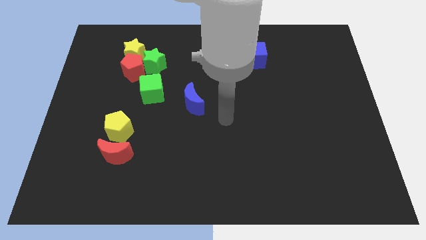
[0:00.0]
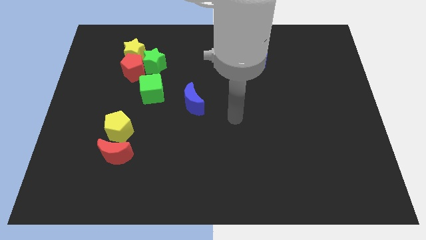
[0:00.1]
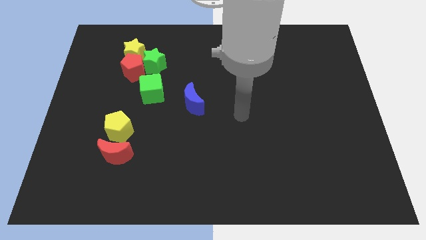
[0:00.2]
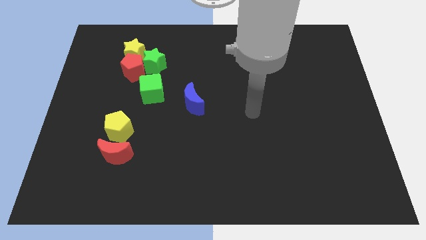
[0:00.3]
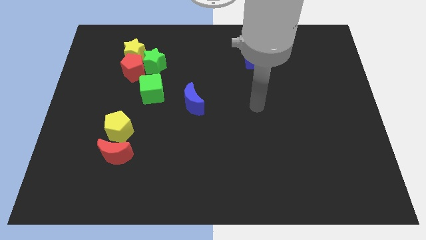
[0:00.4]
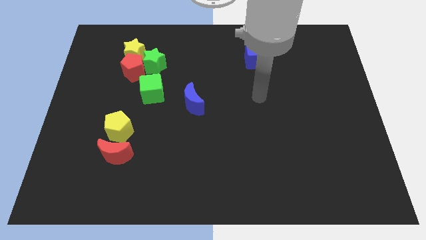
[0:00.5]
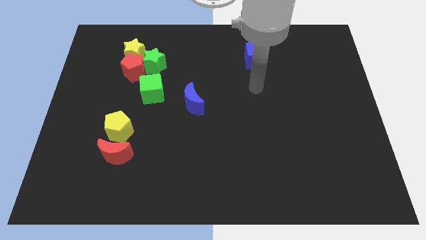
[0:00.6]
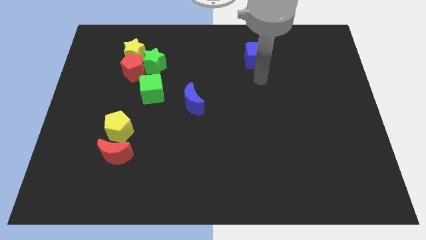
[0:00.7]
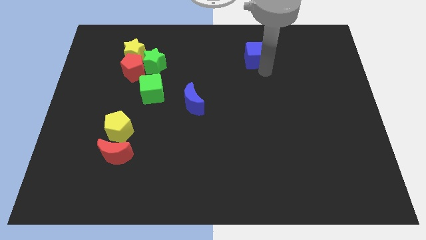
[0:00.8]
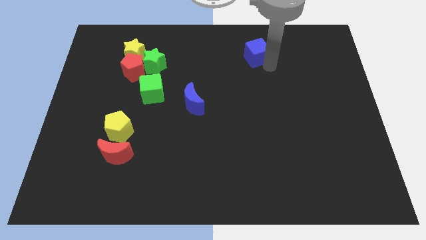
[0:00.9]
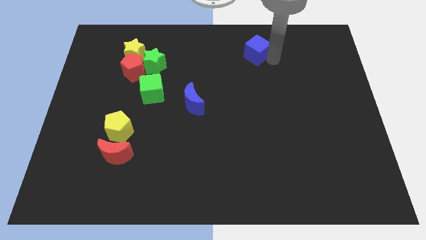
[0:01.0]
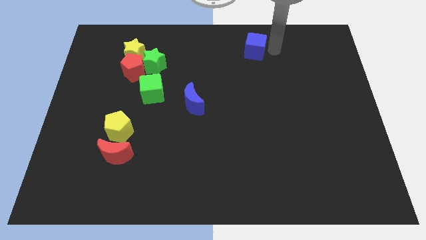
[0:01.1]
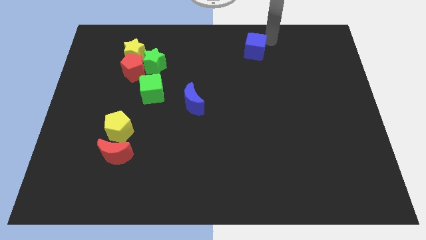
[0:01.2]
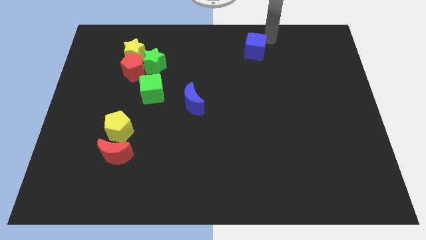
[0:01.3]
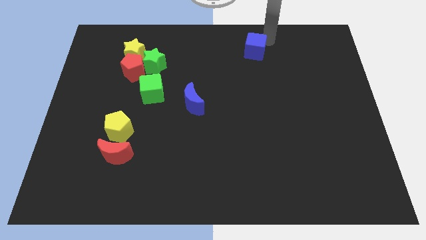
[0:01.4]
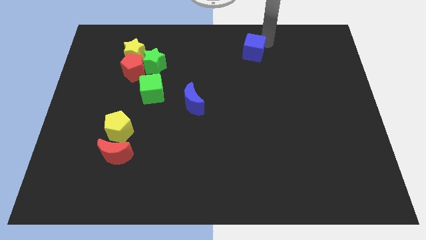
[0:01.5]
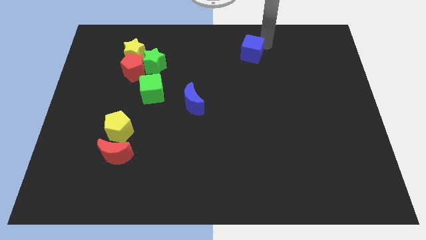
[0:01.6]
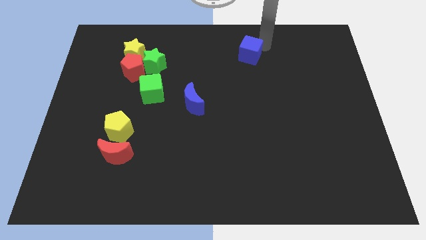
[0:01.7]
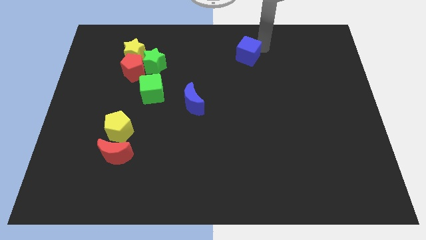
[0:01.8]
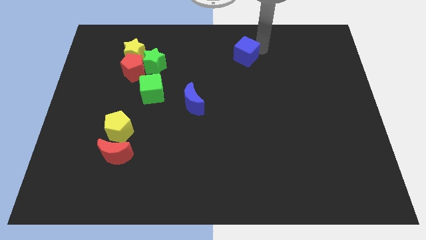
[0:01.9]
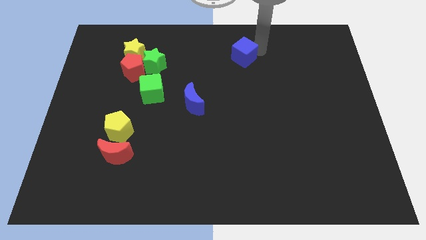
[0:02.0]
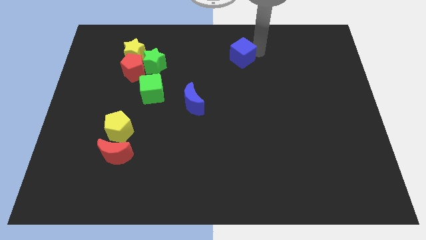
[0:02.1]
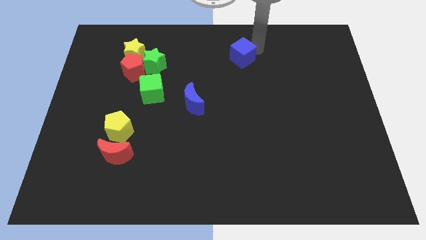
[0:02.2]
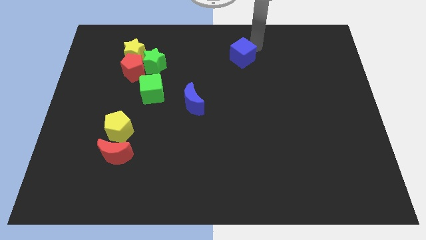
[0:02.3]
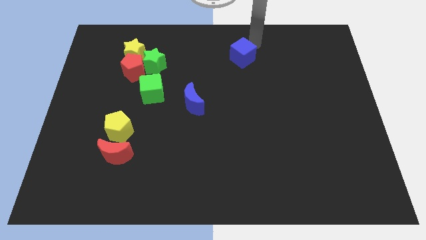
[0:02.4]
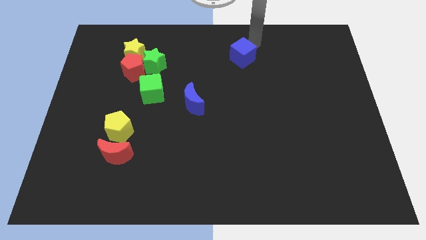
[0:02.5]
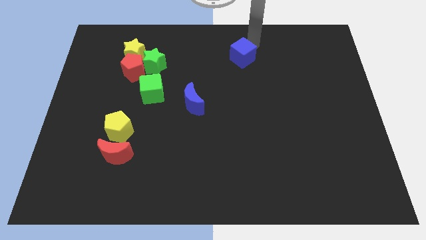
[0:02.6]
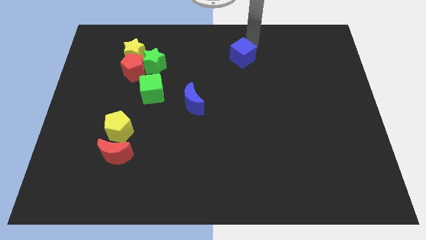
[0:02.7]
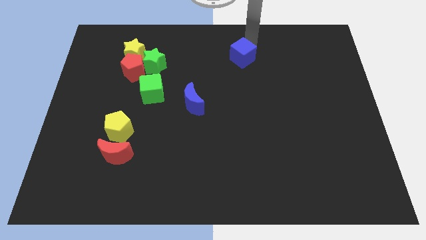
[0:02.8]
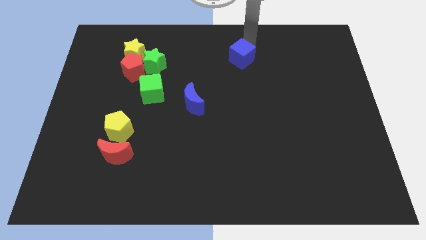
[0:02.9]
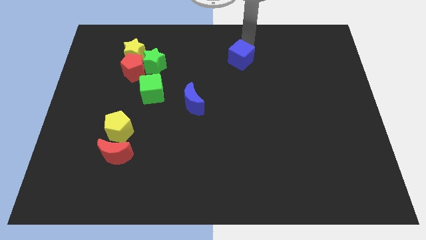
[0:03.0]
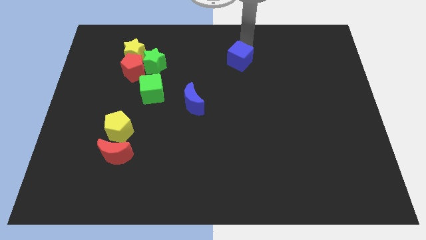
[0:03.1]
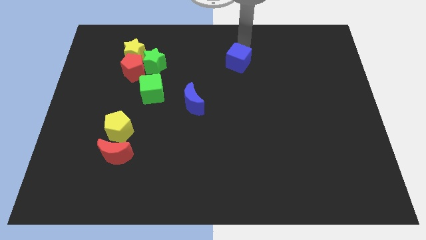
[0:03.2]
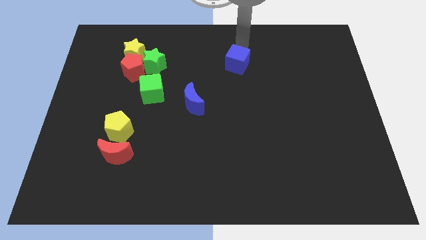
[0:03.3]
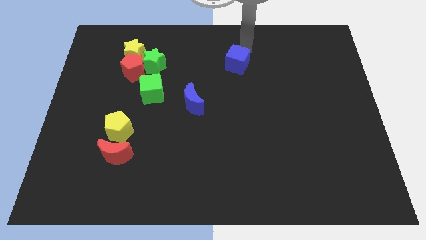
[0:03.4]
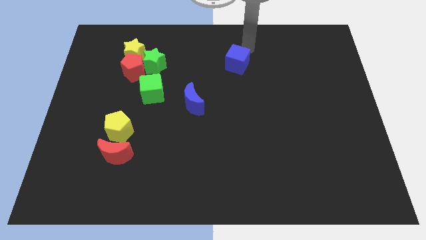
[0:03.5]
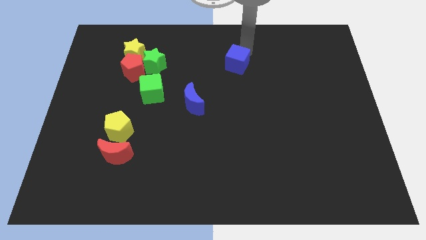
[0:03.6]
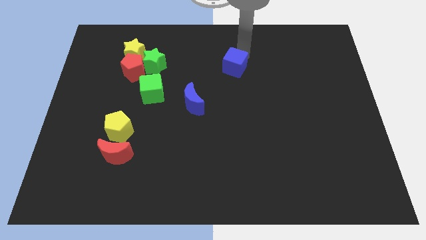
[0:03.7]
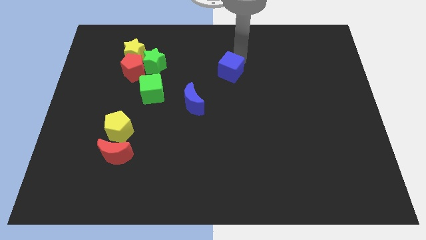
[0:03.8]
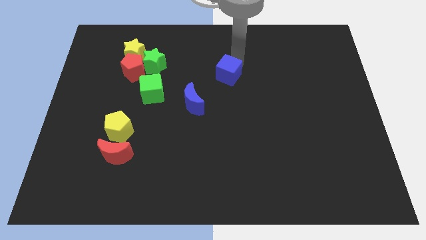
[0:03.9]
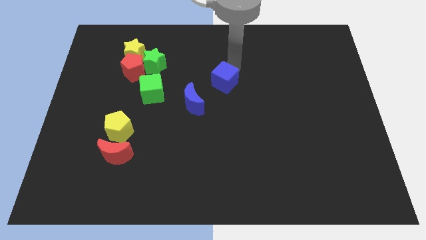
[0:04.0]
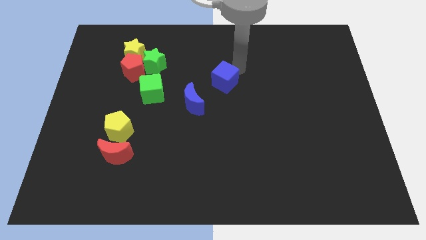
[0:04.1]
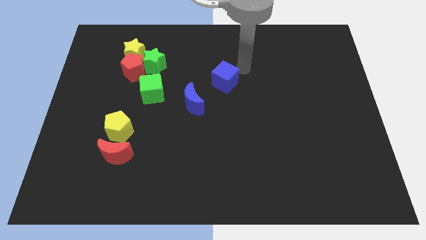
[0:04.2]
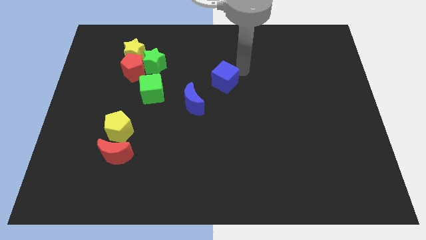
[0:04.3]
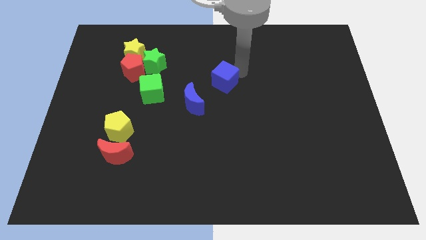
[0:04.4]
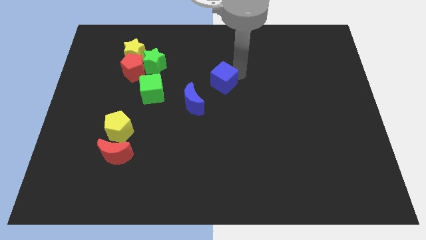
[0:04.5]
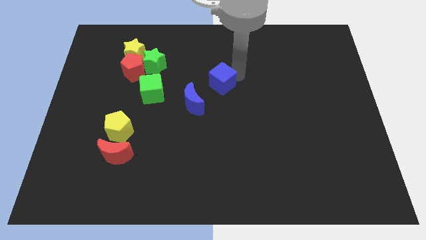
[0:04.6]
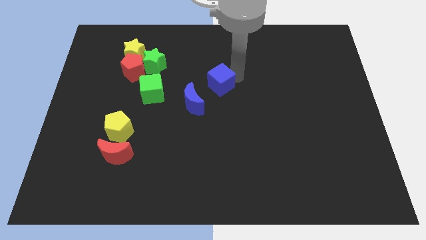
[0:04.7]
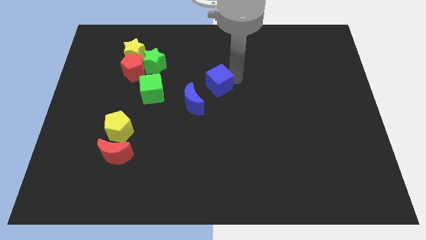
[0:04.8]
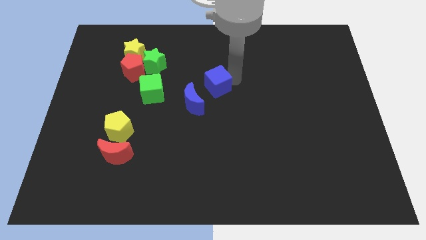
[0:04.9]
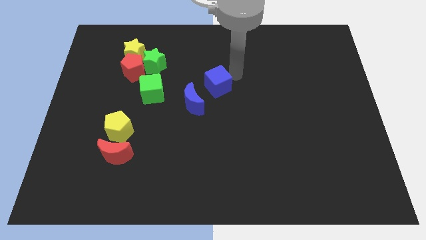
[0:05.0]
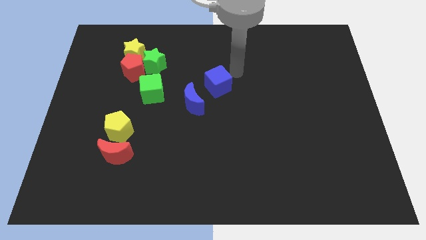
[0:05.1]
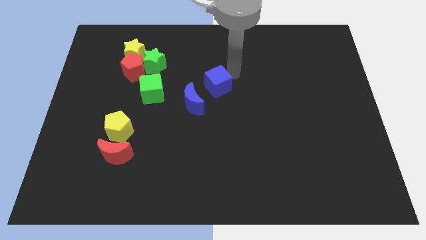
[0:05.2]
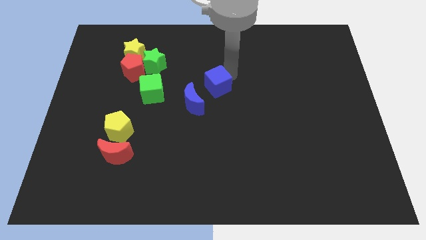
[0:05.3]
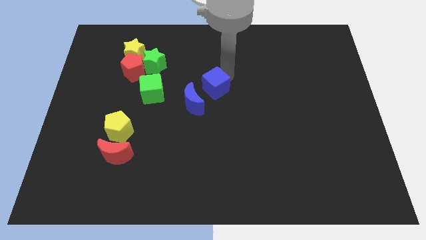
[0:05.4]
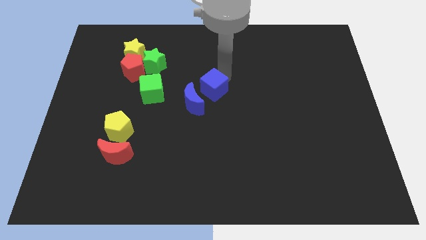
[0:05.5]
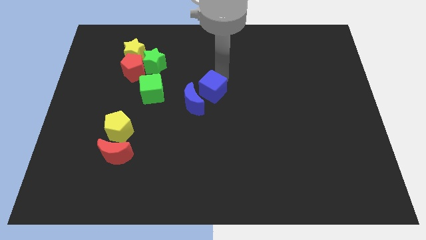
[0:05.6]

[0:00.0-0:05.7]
push the blue cube to the blue moon
